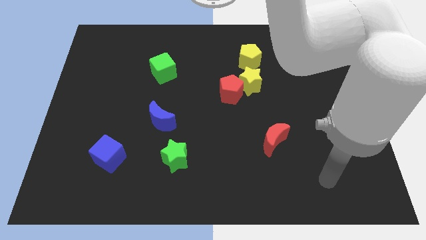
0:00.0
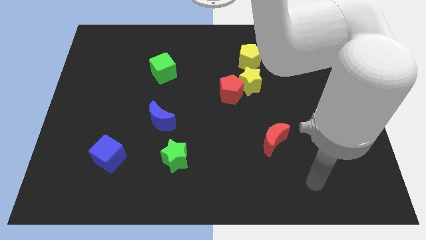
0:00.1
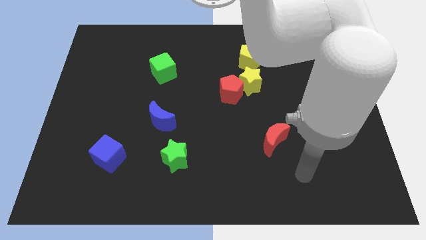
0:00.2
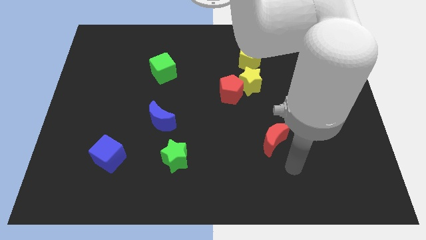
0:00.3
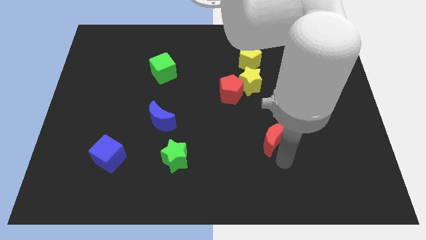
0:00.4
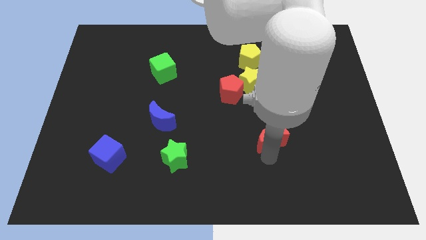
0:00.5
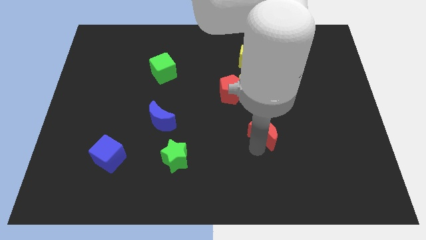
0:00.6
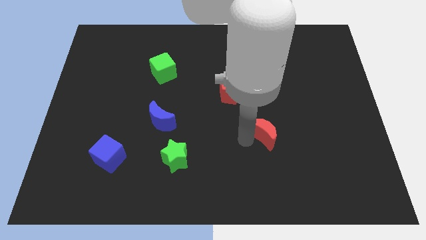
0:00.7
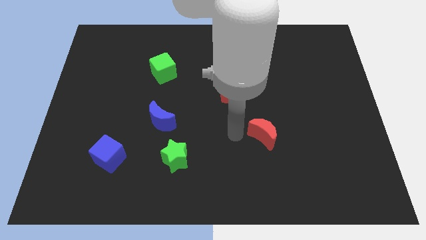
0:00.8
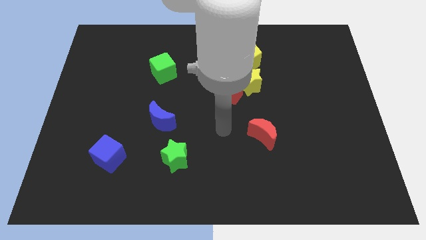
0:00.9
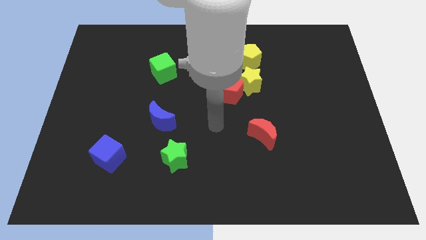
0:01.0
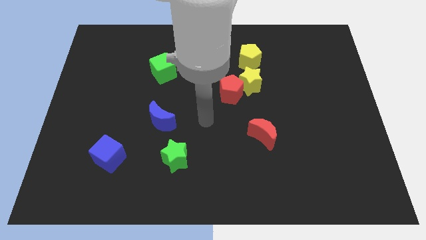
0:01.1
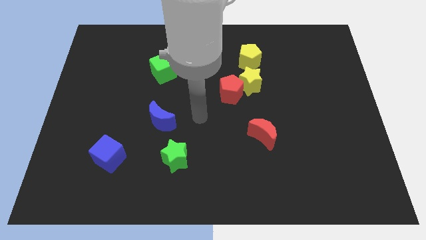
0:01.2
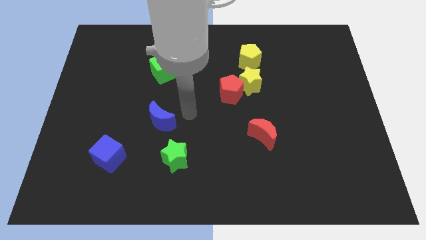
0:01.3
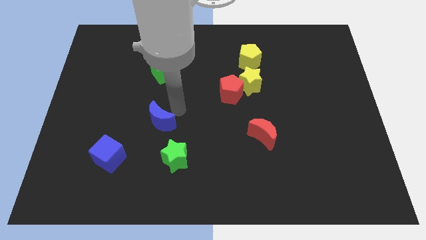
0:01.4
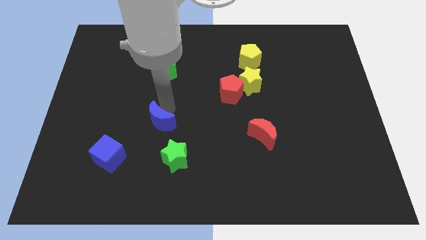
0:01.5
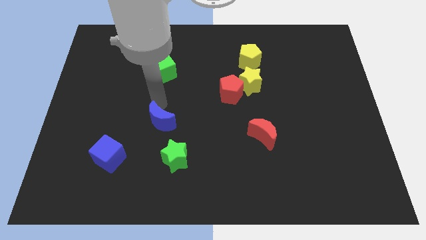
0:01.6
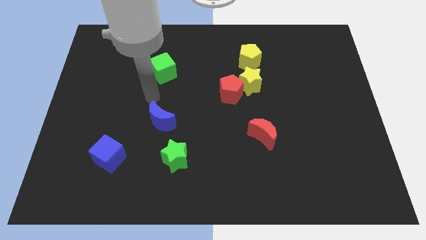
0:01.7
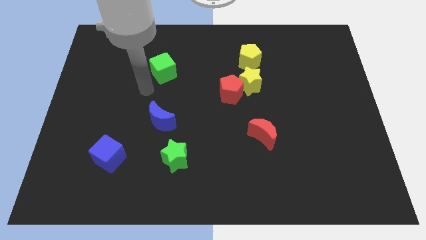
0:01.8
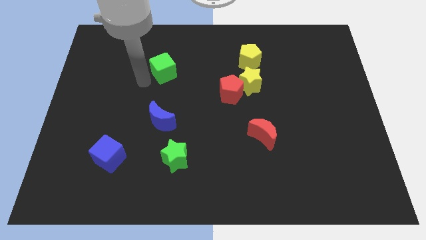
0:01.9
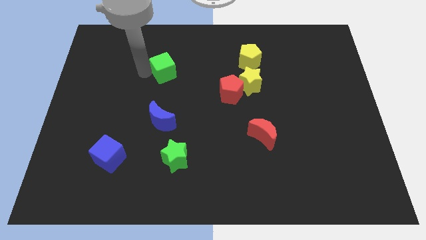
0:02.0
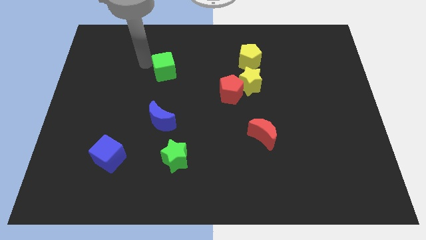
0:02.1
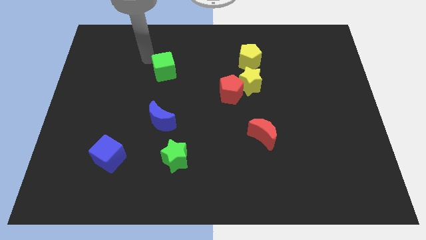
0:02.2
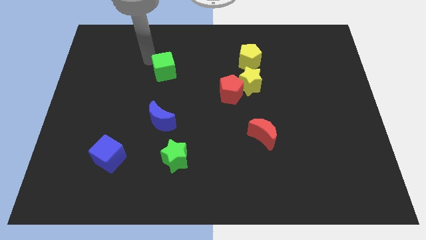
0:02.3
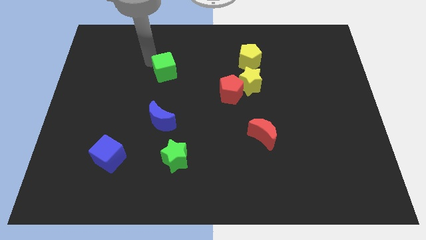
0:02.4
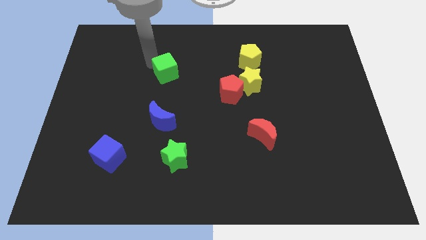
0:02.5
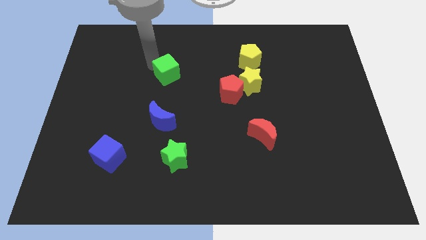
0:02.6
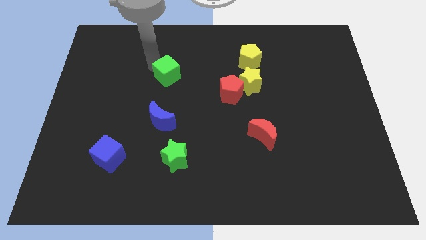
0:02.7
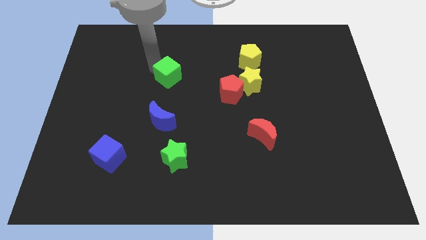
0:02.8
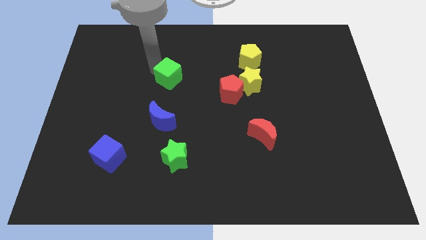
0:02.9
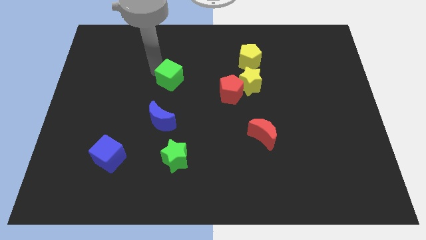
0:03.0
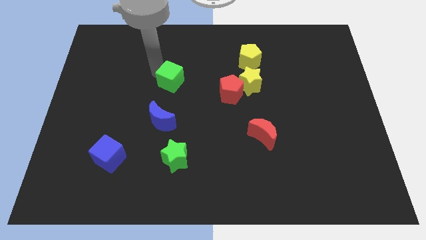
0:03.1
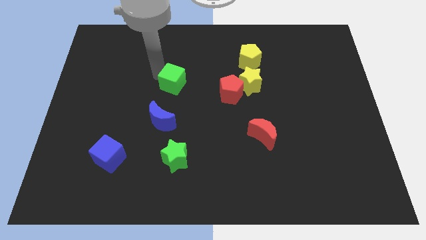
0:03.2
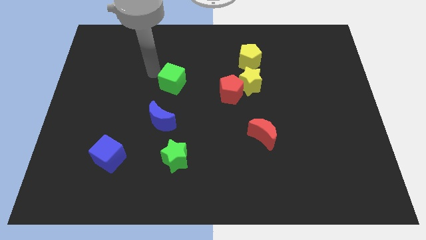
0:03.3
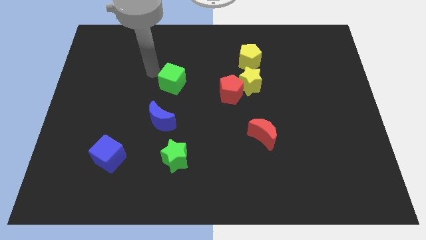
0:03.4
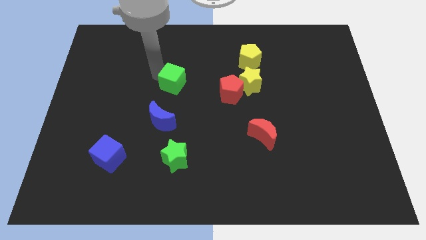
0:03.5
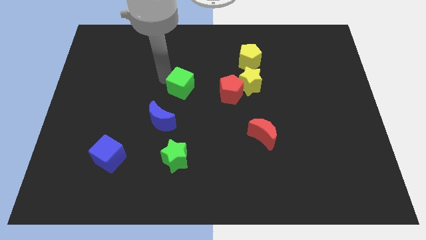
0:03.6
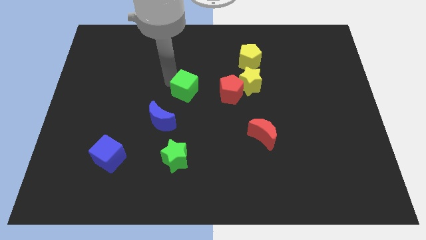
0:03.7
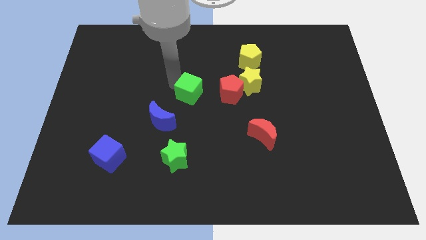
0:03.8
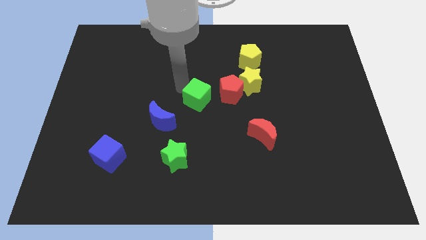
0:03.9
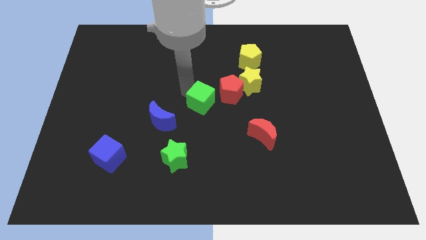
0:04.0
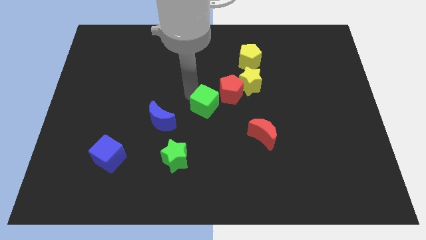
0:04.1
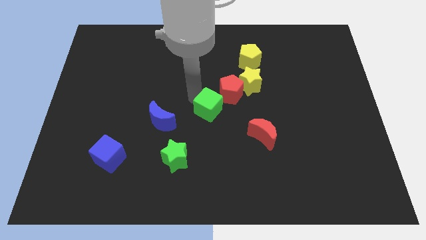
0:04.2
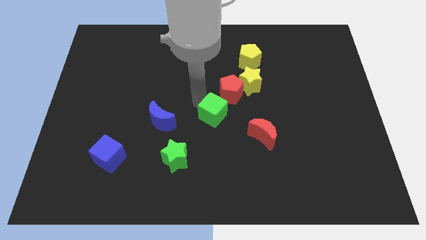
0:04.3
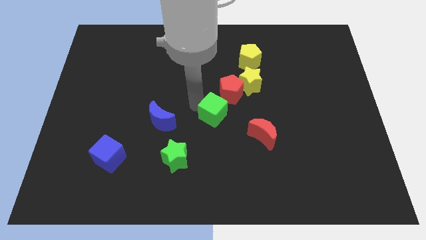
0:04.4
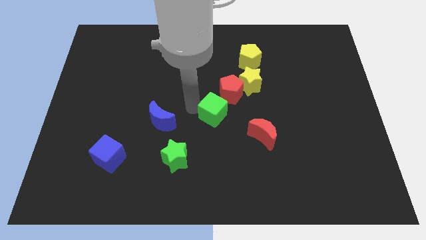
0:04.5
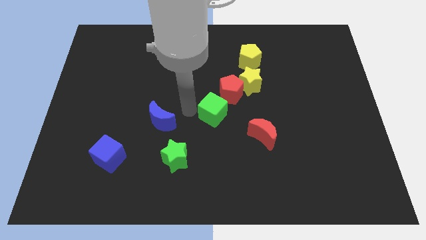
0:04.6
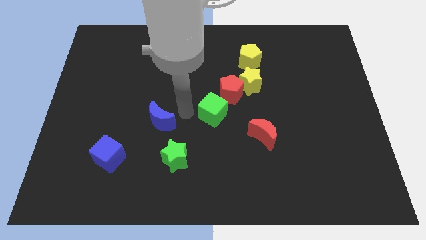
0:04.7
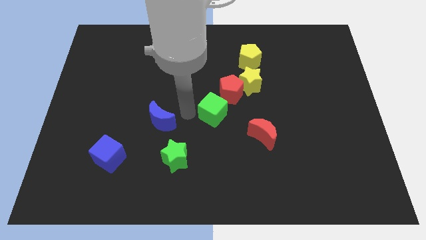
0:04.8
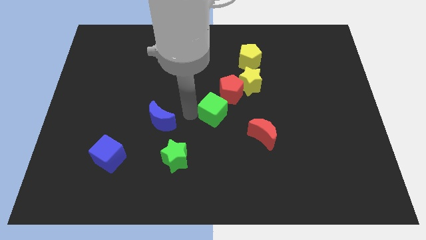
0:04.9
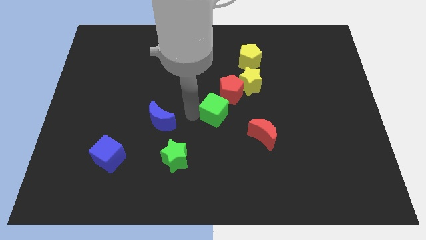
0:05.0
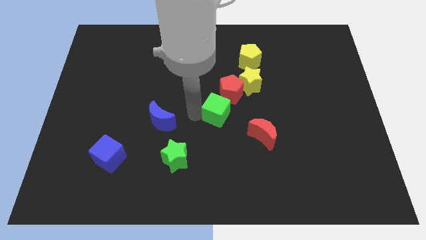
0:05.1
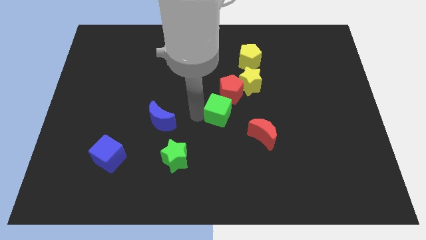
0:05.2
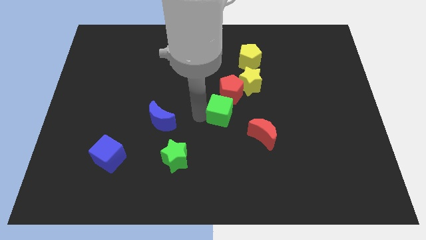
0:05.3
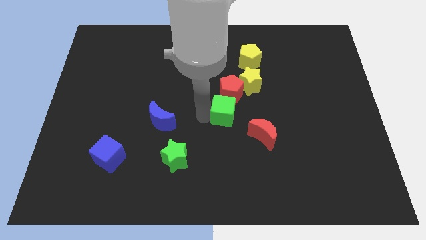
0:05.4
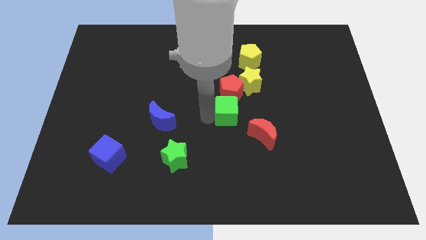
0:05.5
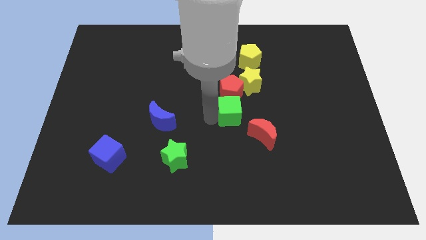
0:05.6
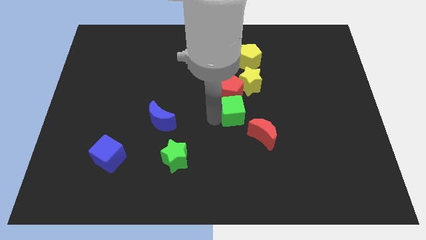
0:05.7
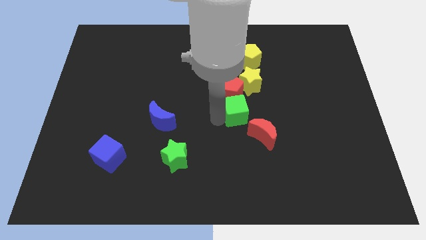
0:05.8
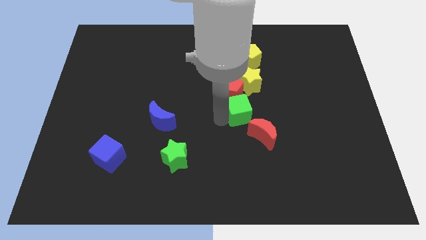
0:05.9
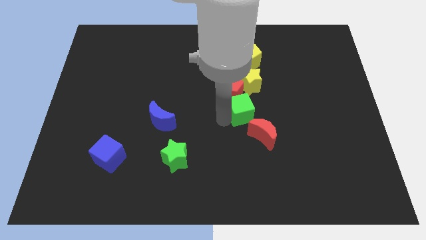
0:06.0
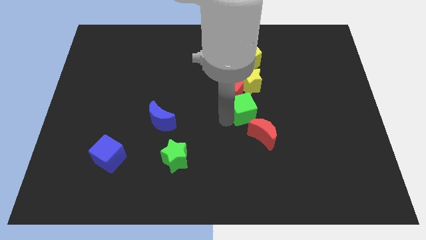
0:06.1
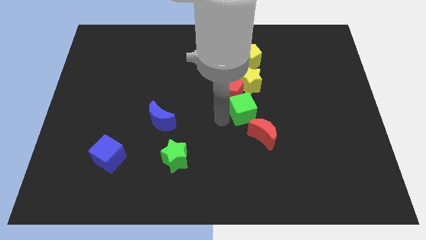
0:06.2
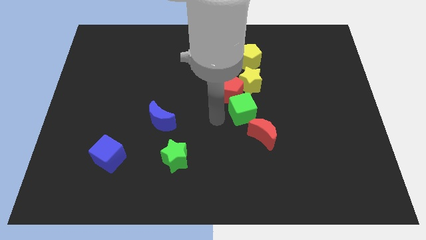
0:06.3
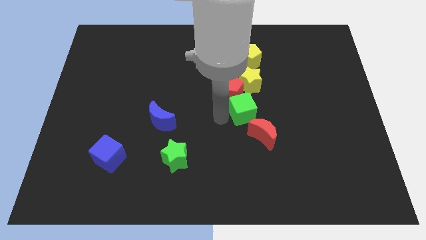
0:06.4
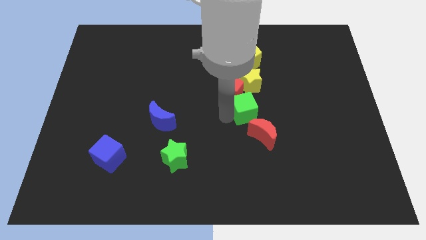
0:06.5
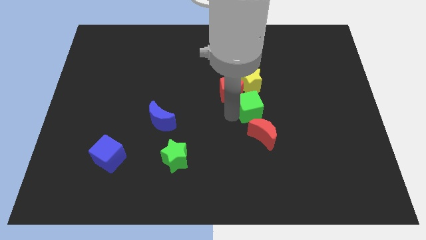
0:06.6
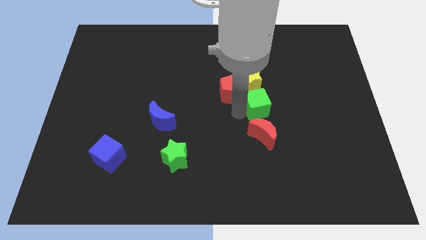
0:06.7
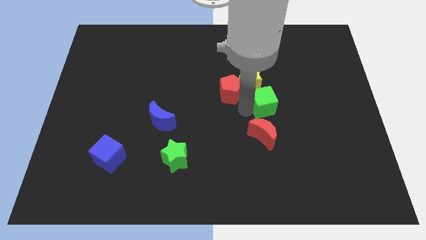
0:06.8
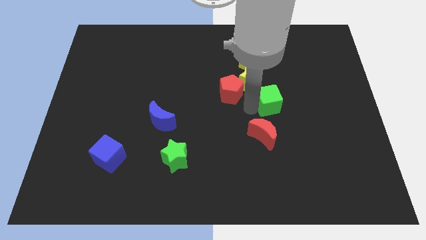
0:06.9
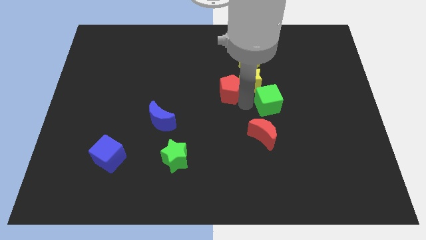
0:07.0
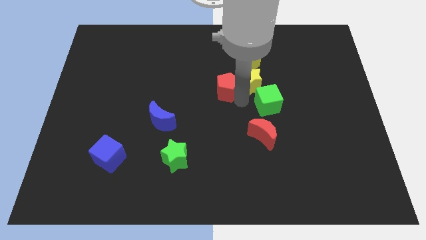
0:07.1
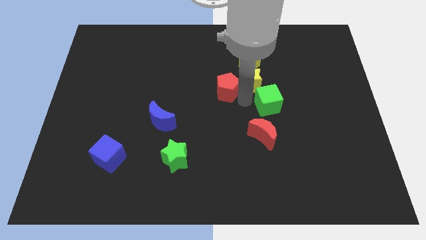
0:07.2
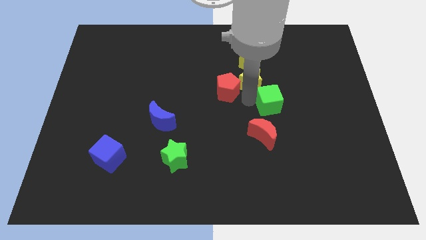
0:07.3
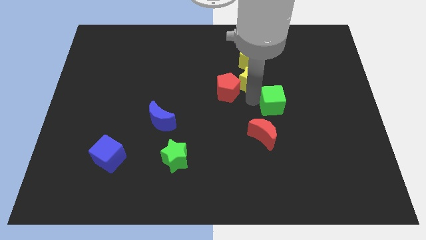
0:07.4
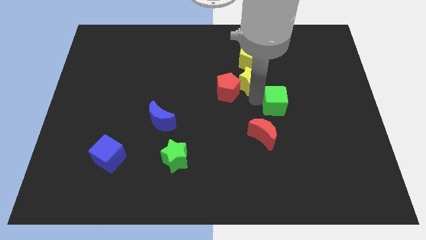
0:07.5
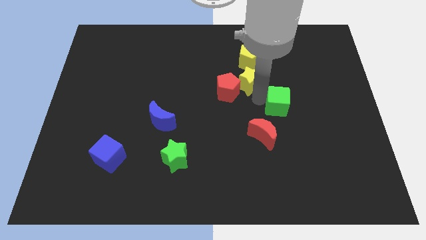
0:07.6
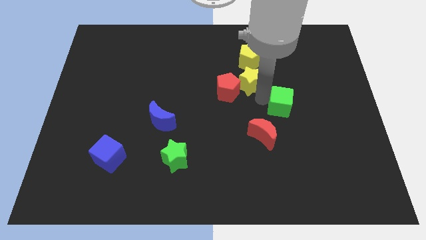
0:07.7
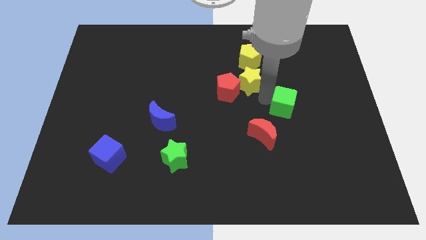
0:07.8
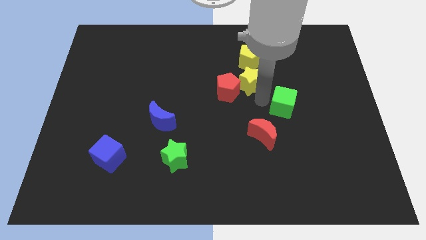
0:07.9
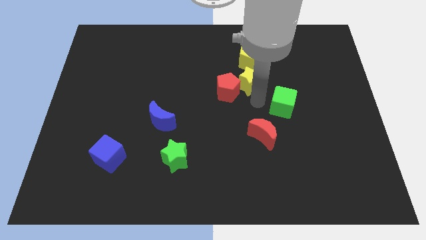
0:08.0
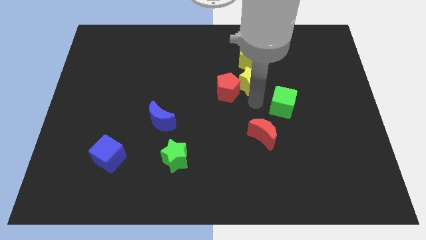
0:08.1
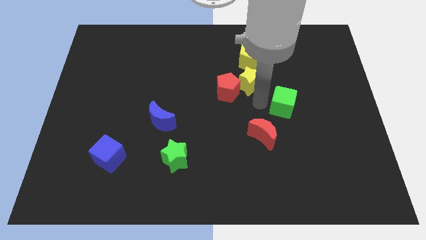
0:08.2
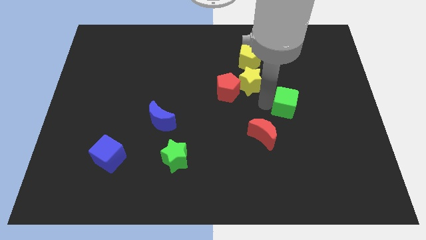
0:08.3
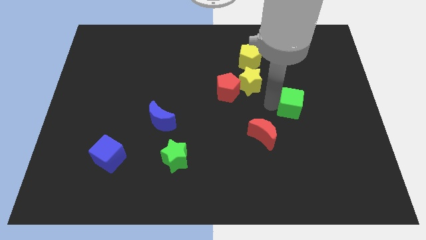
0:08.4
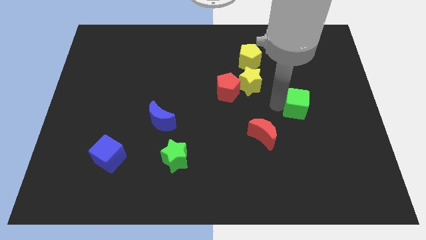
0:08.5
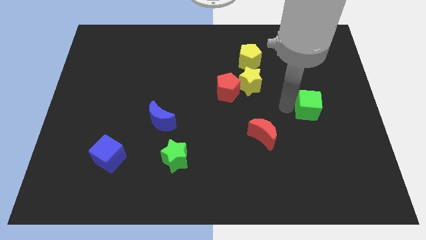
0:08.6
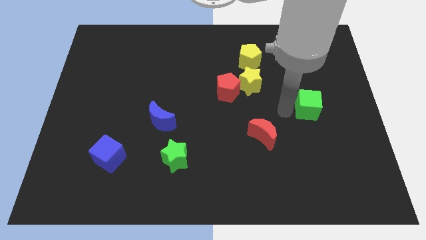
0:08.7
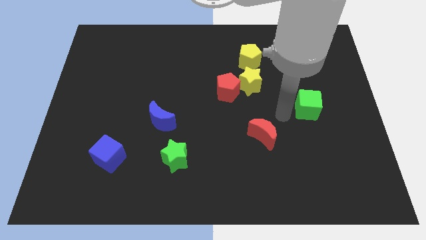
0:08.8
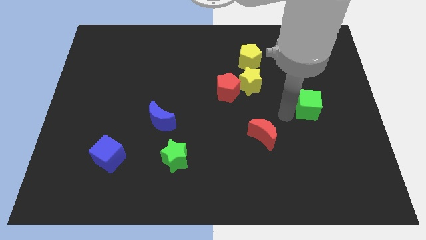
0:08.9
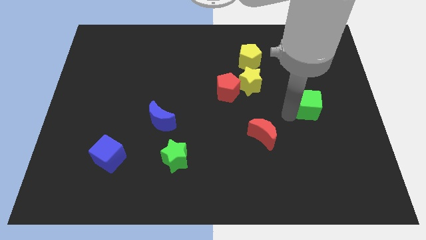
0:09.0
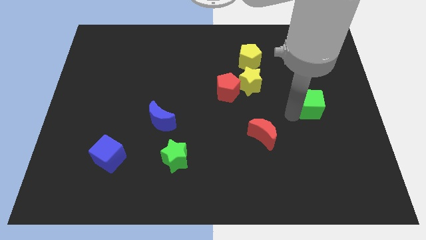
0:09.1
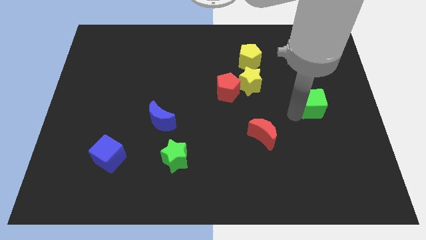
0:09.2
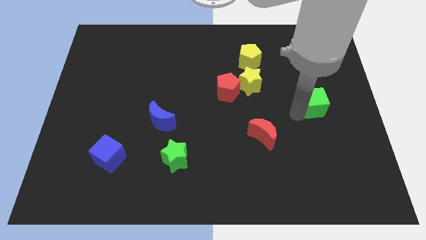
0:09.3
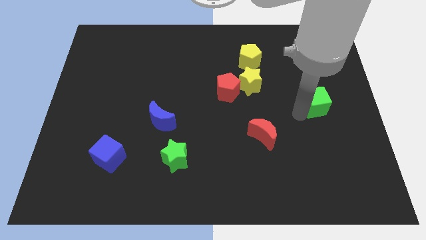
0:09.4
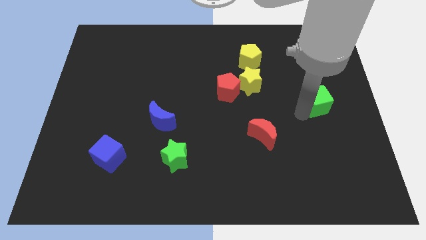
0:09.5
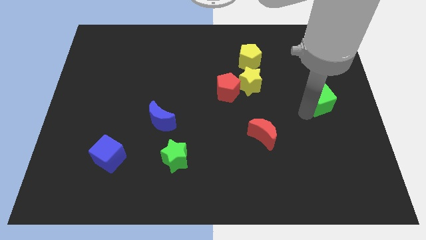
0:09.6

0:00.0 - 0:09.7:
move the green cube to the right side of the board
